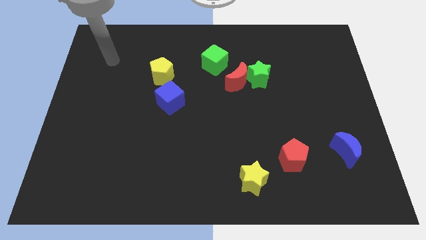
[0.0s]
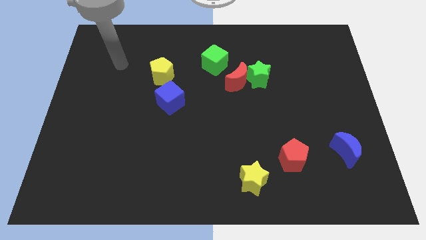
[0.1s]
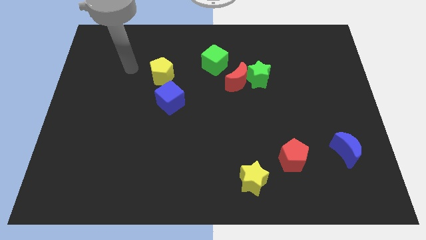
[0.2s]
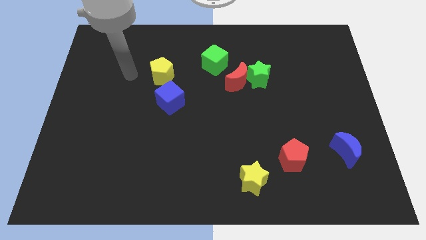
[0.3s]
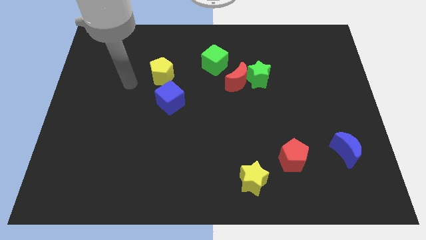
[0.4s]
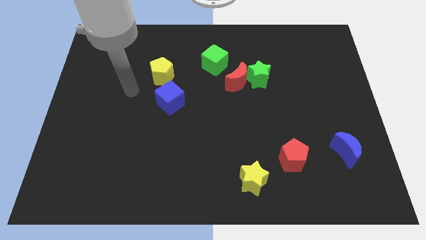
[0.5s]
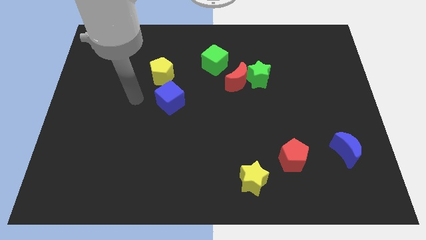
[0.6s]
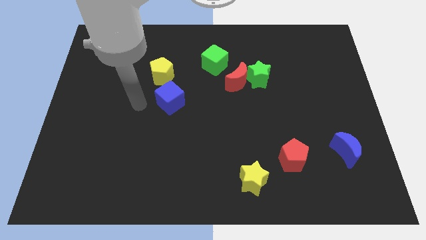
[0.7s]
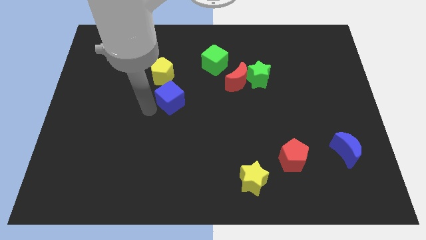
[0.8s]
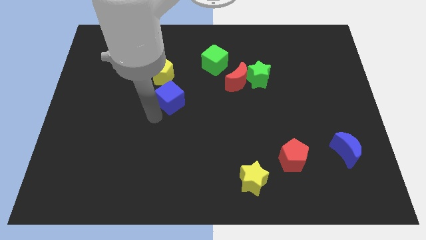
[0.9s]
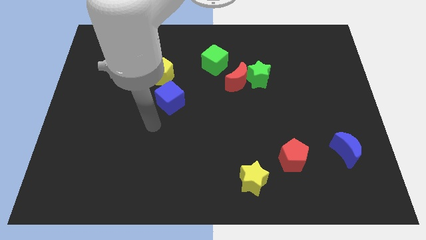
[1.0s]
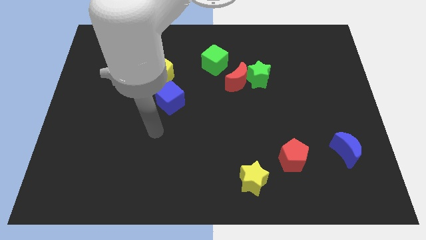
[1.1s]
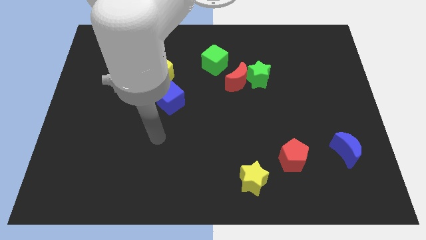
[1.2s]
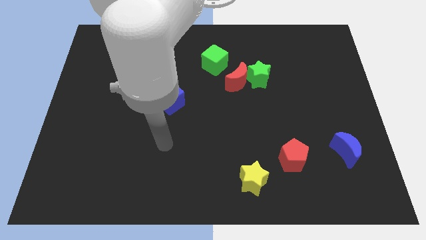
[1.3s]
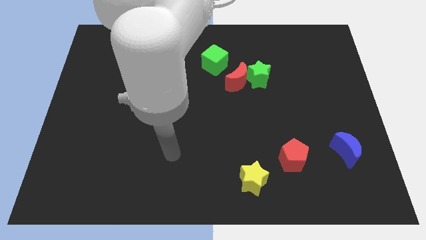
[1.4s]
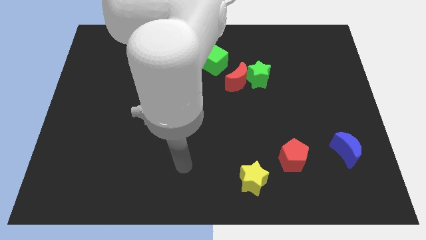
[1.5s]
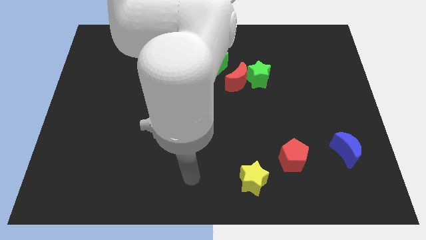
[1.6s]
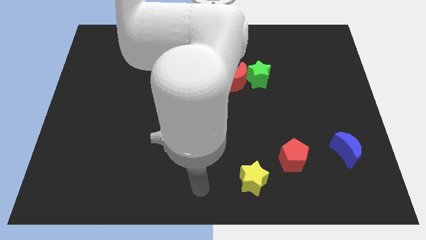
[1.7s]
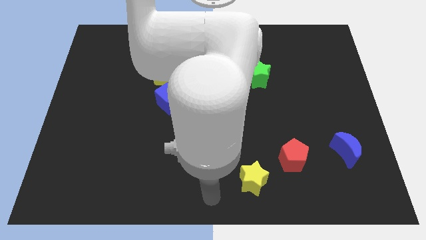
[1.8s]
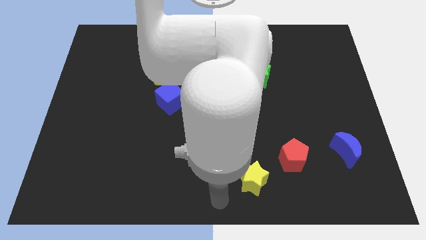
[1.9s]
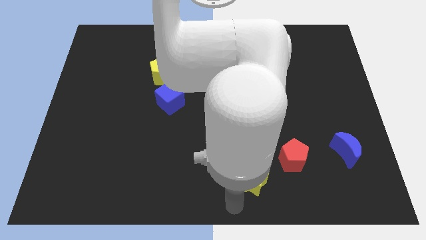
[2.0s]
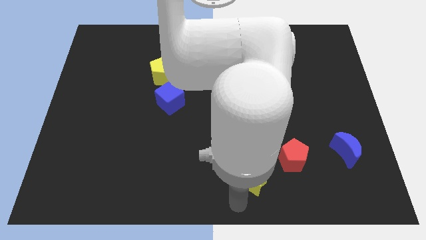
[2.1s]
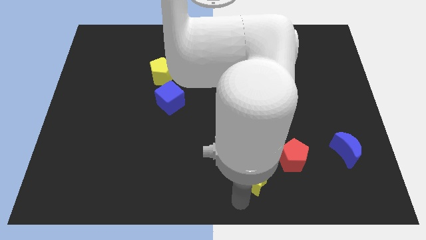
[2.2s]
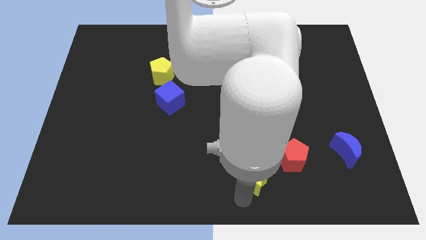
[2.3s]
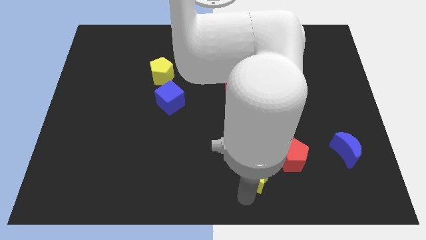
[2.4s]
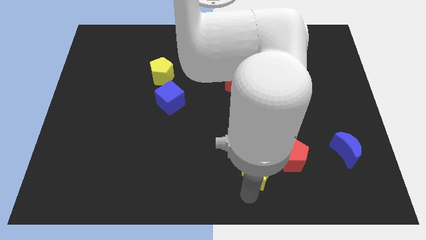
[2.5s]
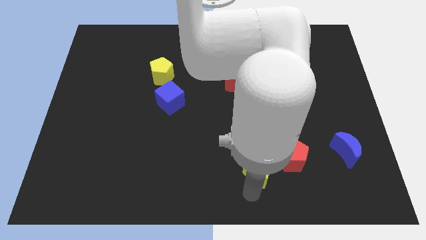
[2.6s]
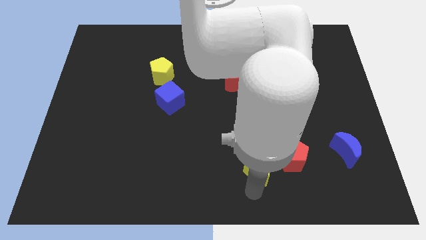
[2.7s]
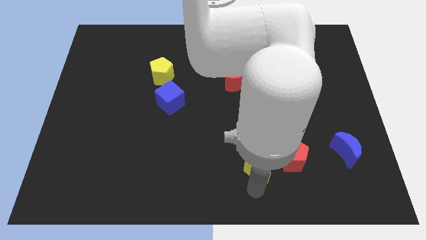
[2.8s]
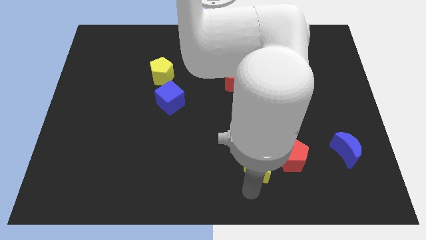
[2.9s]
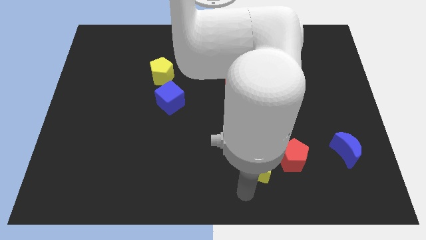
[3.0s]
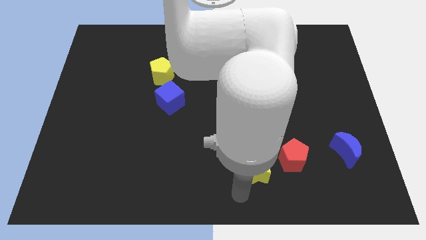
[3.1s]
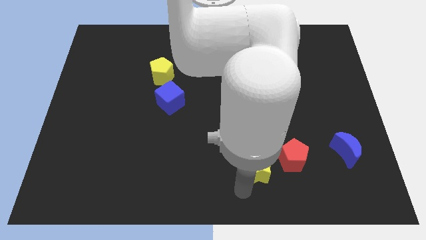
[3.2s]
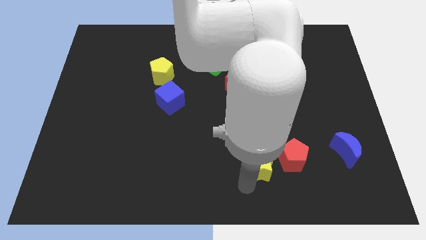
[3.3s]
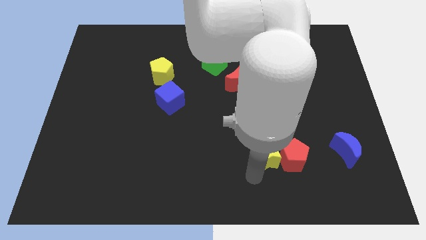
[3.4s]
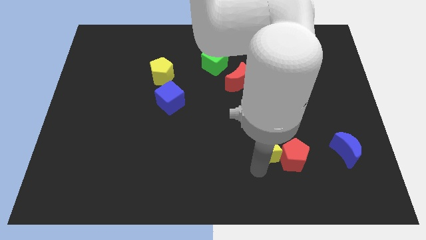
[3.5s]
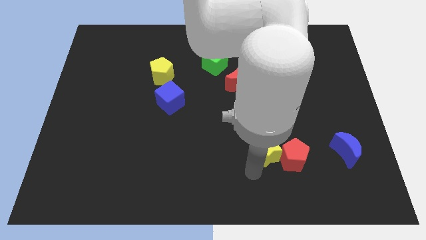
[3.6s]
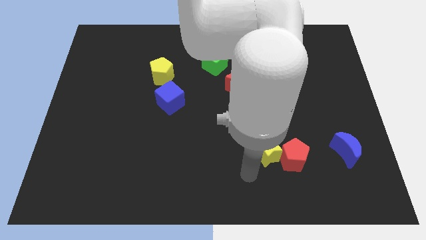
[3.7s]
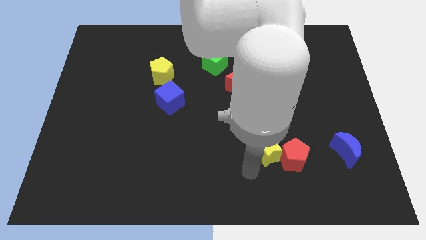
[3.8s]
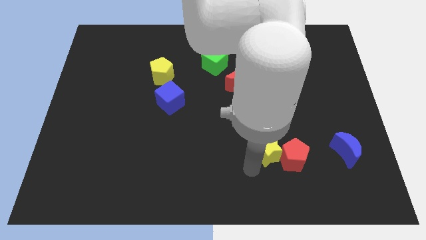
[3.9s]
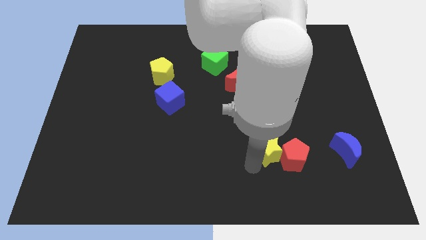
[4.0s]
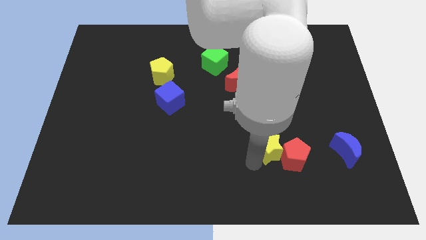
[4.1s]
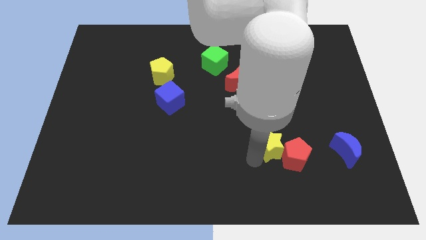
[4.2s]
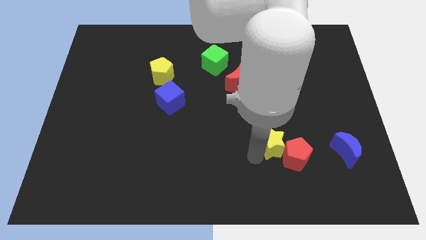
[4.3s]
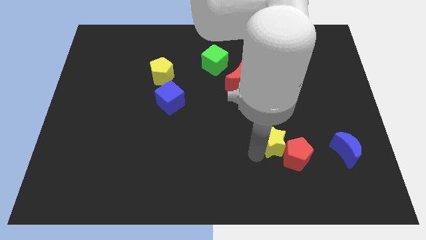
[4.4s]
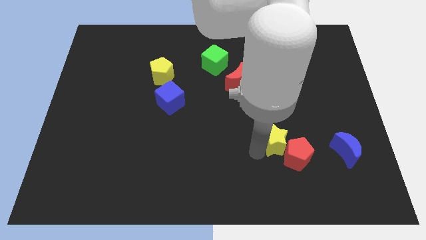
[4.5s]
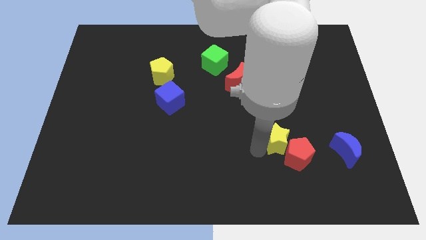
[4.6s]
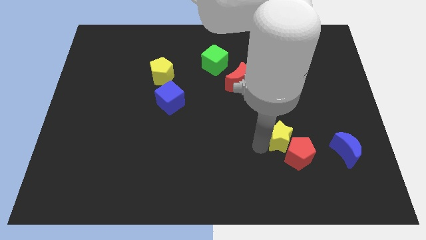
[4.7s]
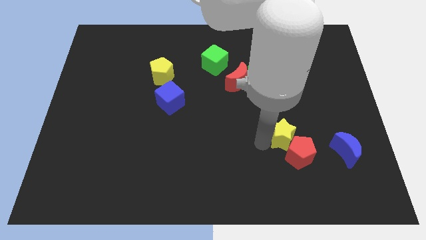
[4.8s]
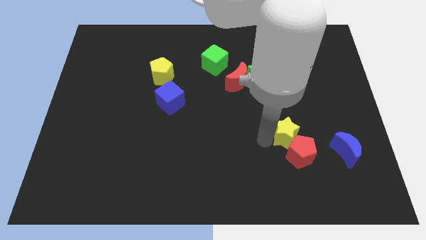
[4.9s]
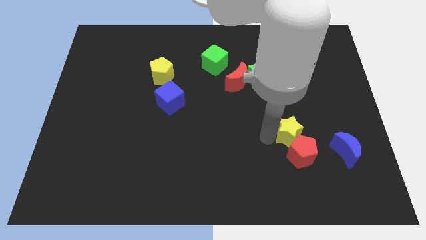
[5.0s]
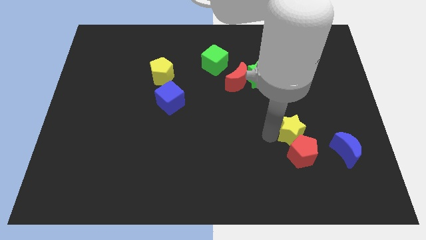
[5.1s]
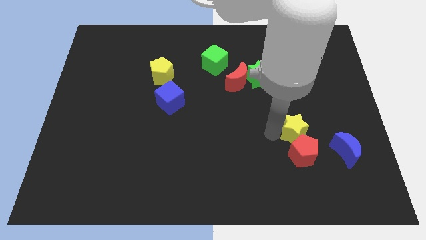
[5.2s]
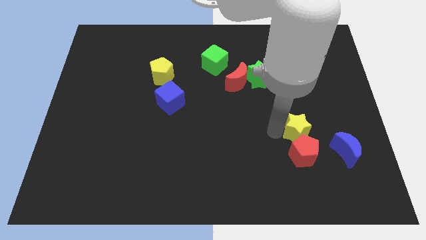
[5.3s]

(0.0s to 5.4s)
slide the yellow star diagonally up and to the left of the blue moon

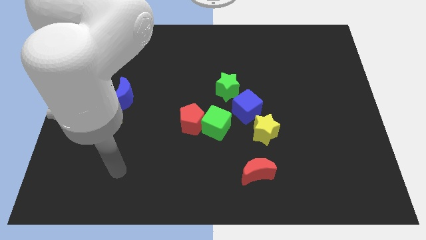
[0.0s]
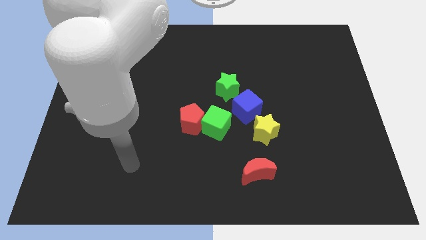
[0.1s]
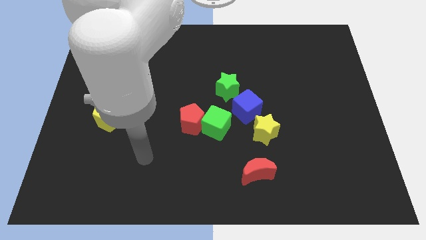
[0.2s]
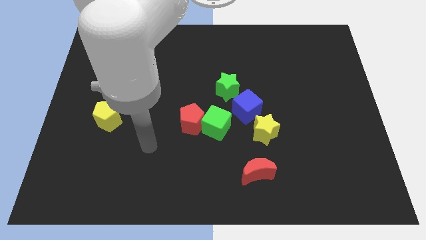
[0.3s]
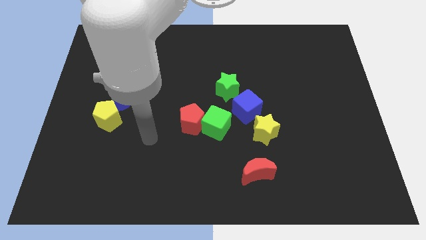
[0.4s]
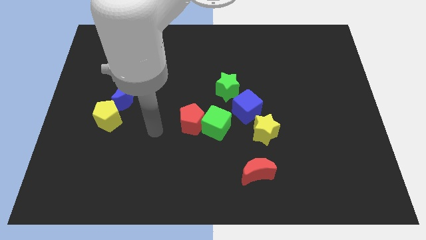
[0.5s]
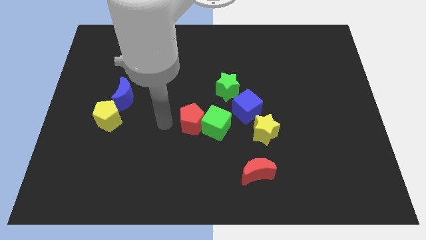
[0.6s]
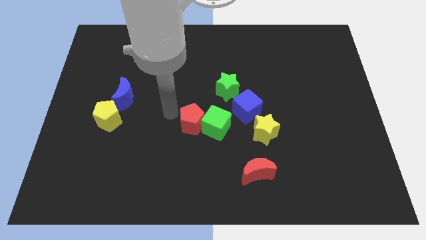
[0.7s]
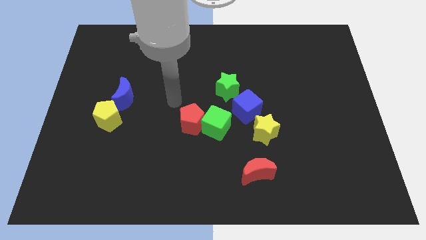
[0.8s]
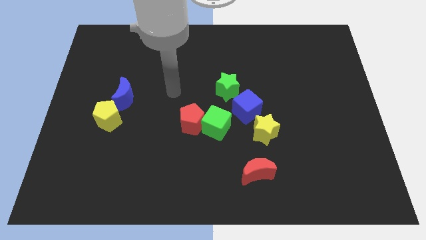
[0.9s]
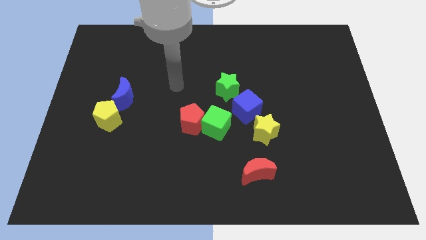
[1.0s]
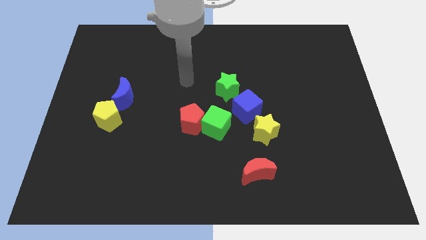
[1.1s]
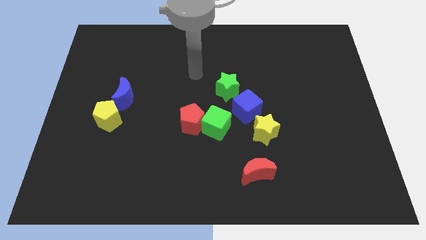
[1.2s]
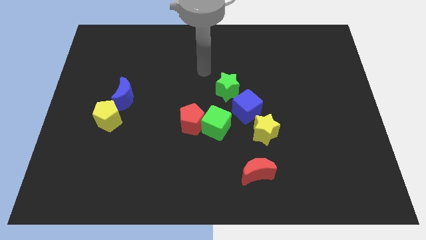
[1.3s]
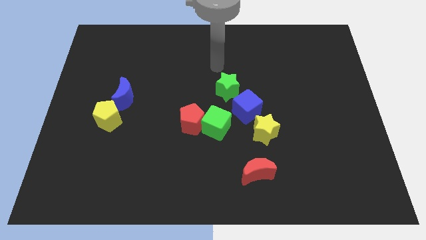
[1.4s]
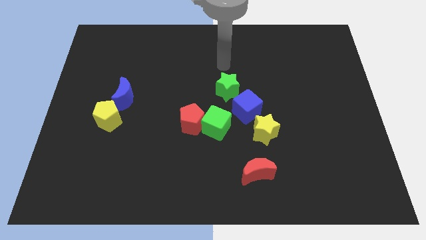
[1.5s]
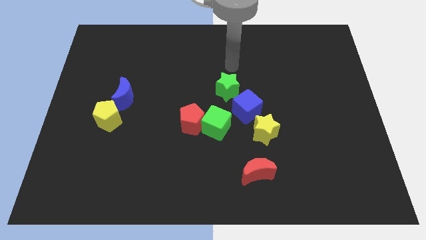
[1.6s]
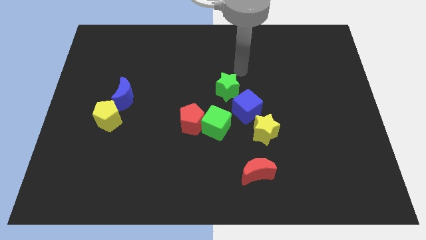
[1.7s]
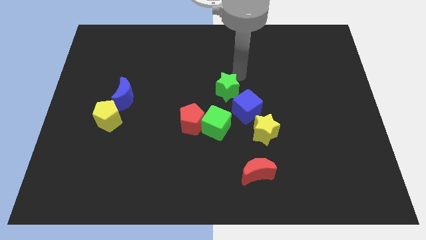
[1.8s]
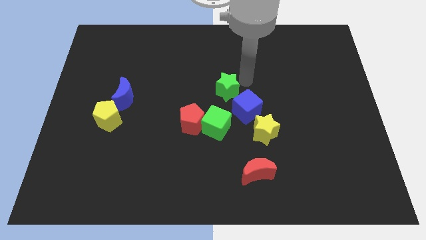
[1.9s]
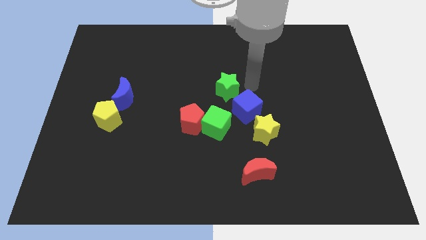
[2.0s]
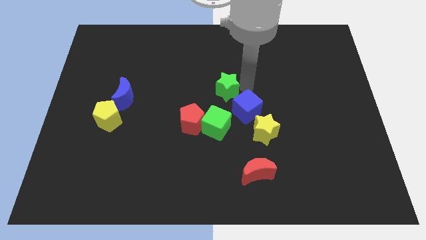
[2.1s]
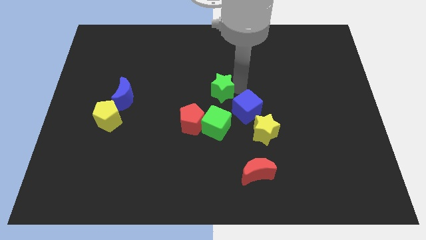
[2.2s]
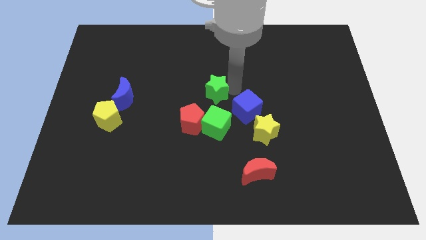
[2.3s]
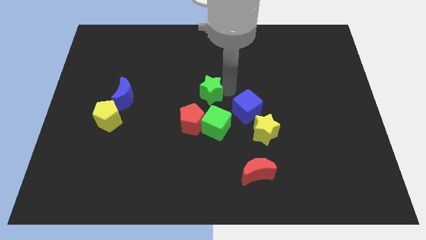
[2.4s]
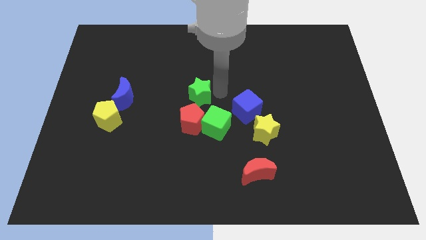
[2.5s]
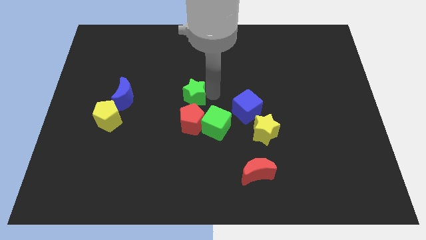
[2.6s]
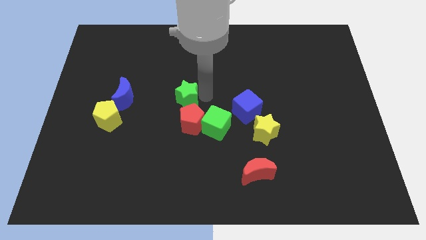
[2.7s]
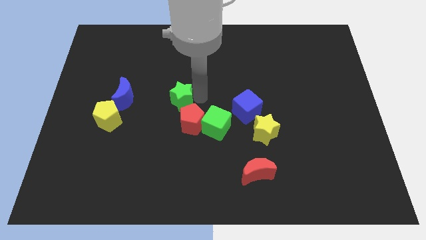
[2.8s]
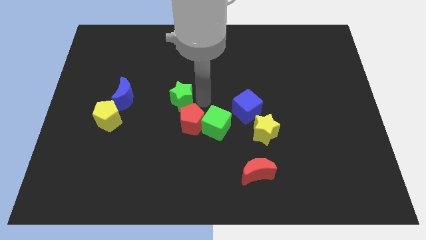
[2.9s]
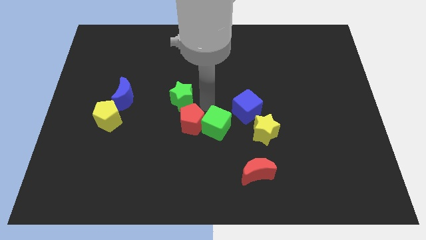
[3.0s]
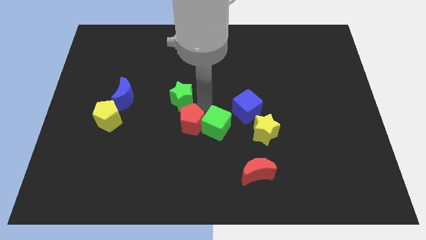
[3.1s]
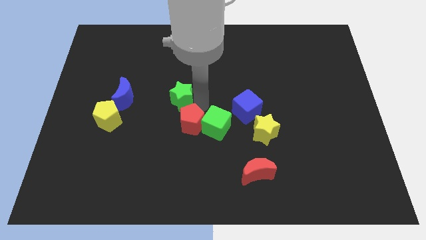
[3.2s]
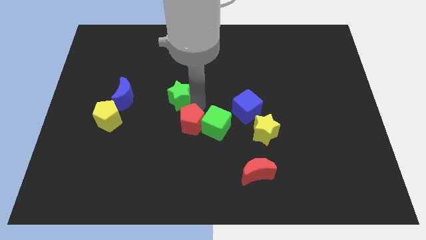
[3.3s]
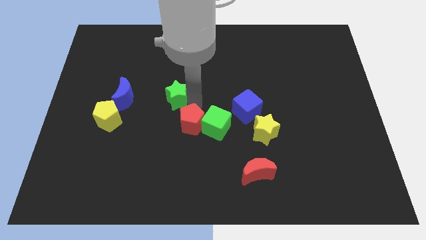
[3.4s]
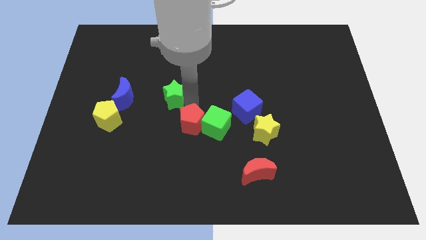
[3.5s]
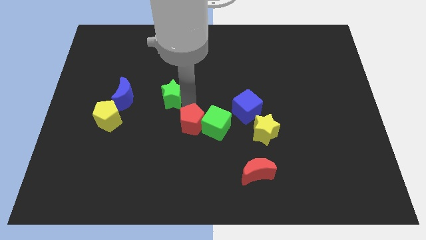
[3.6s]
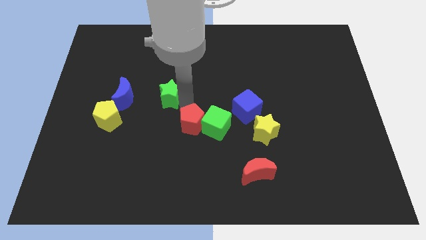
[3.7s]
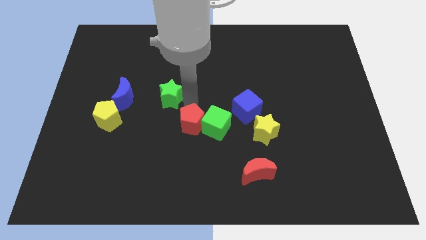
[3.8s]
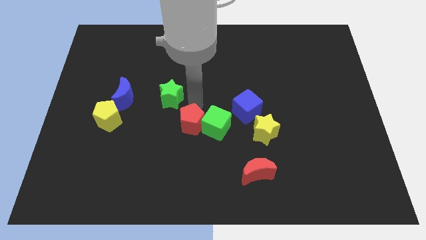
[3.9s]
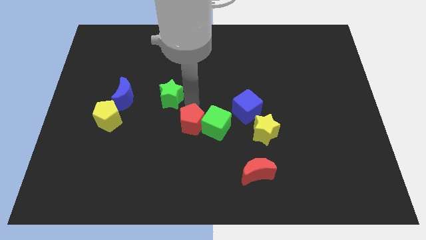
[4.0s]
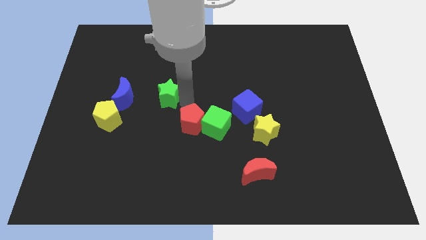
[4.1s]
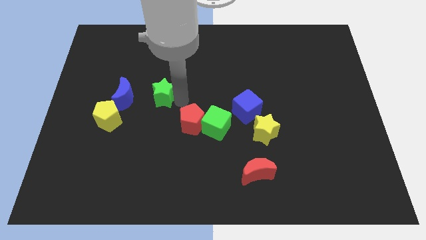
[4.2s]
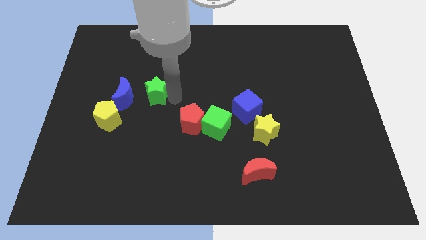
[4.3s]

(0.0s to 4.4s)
push the green star to the top right of the yellow pentagon
